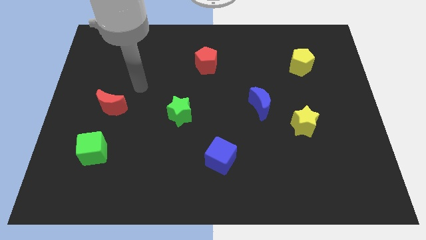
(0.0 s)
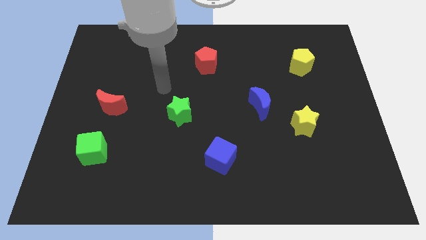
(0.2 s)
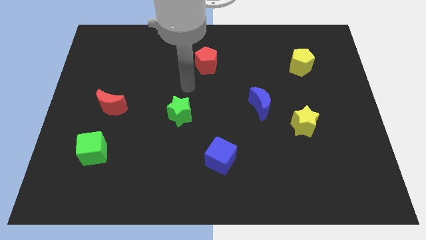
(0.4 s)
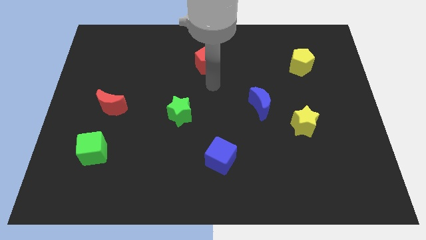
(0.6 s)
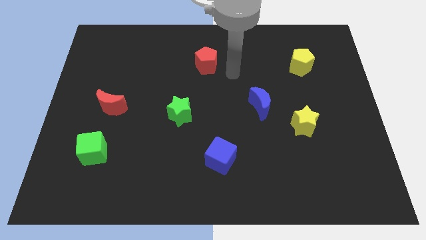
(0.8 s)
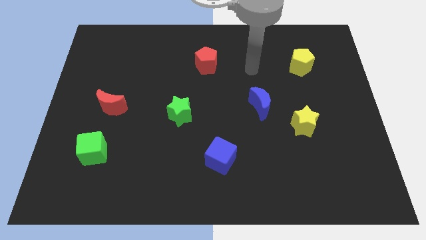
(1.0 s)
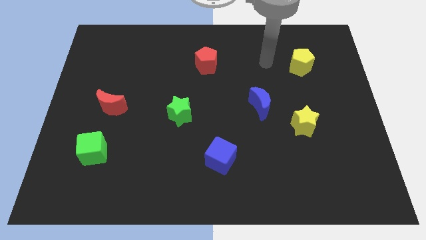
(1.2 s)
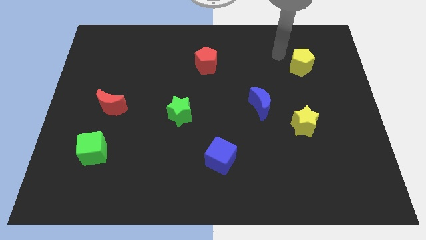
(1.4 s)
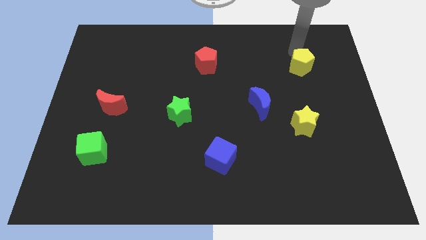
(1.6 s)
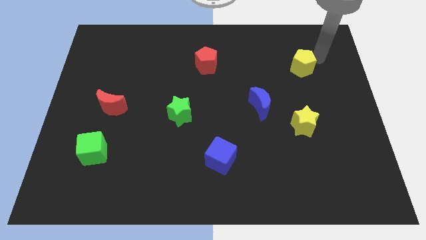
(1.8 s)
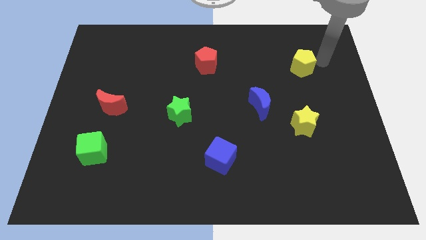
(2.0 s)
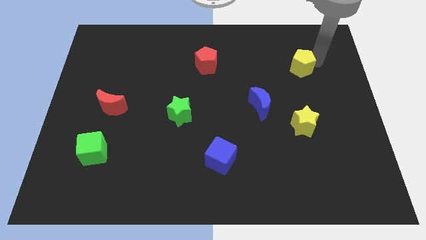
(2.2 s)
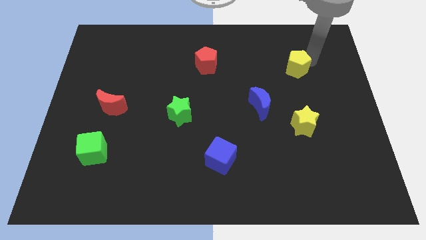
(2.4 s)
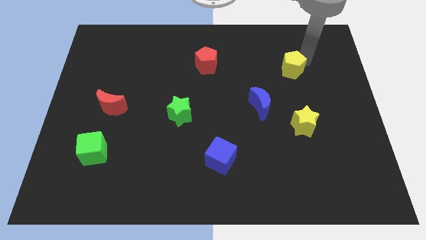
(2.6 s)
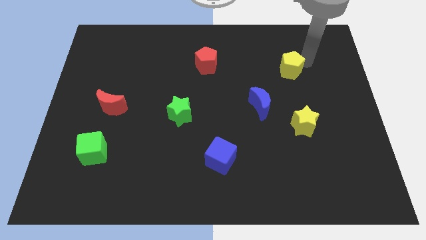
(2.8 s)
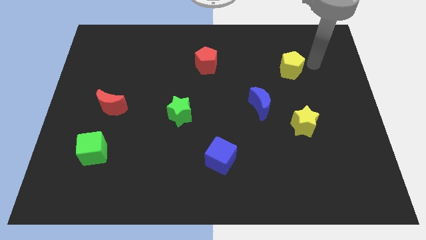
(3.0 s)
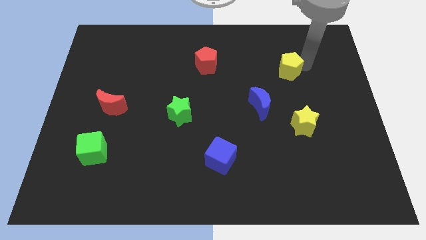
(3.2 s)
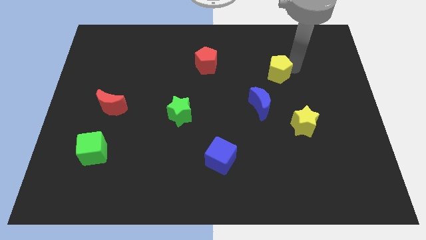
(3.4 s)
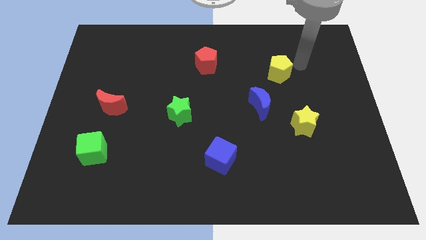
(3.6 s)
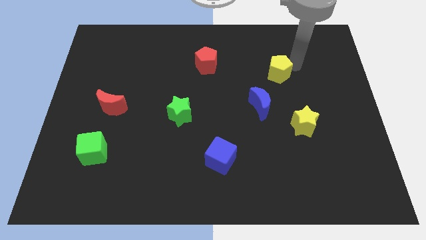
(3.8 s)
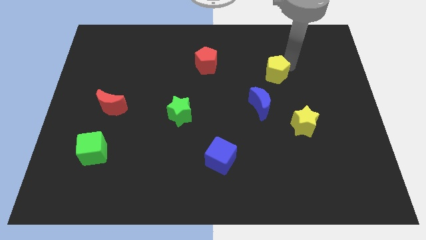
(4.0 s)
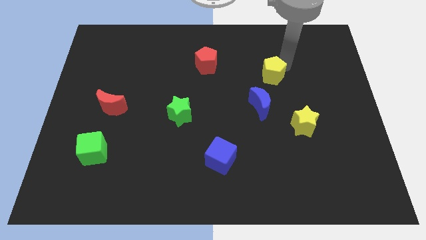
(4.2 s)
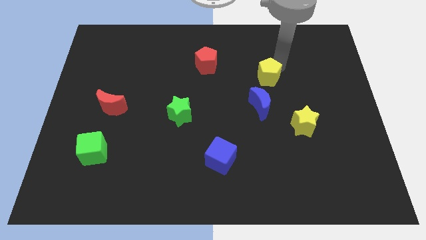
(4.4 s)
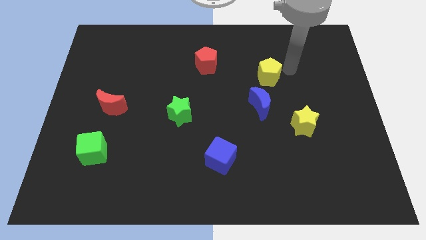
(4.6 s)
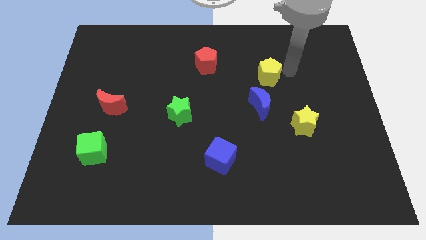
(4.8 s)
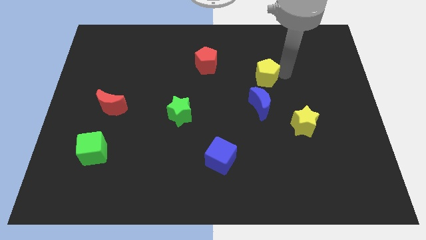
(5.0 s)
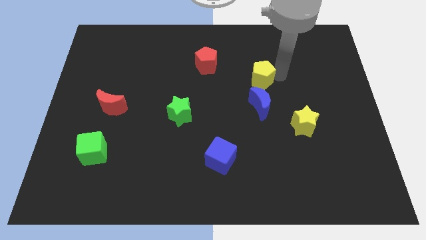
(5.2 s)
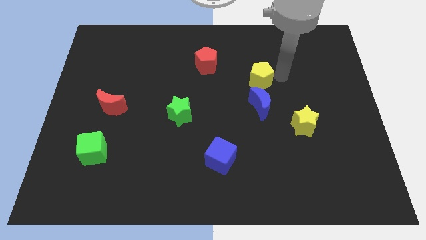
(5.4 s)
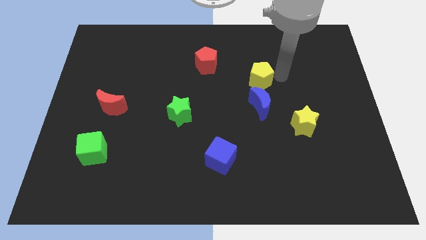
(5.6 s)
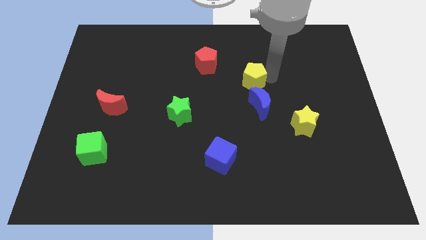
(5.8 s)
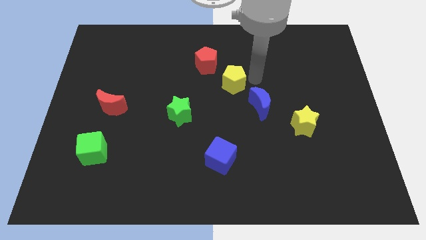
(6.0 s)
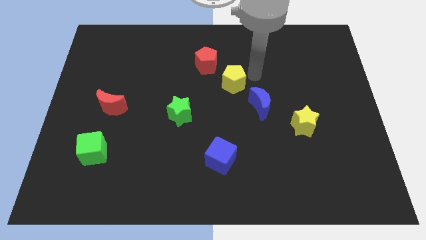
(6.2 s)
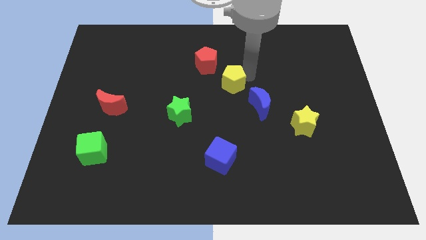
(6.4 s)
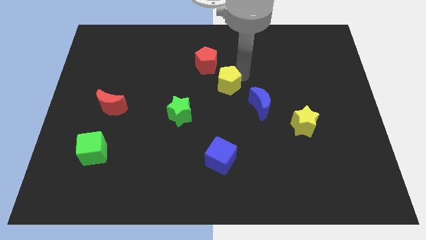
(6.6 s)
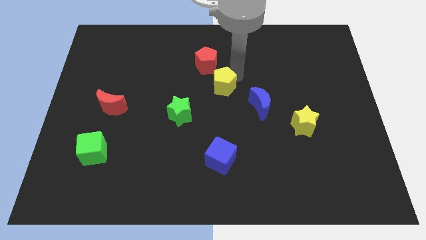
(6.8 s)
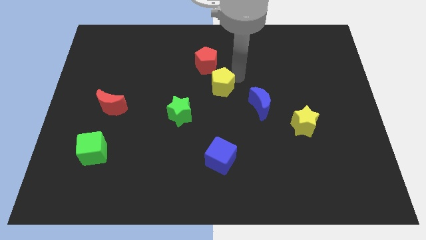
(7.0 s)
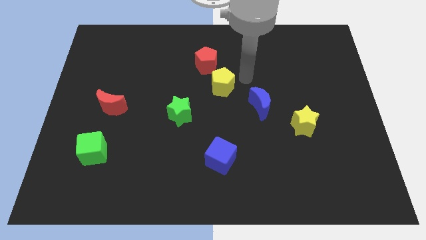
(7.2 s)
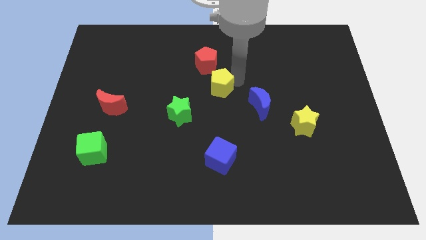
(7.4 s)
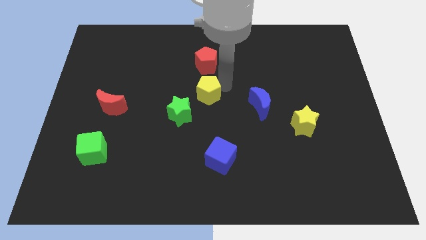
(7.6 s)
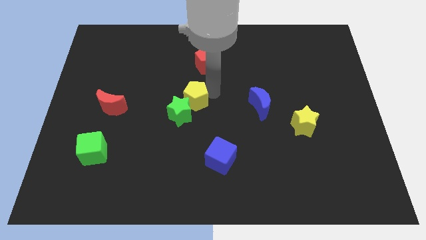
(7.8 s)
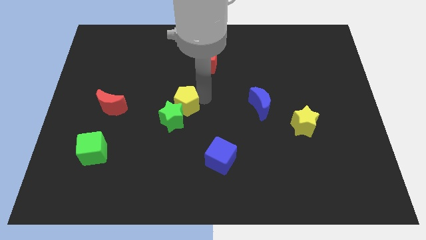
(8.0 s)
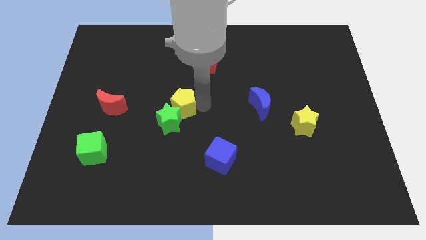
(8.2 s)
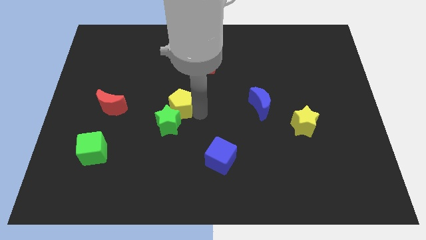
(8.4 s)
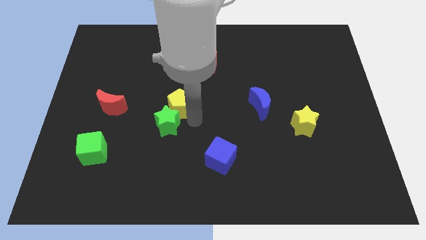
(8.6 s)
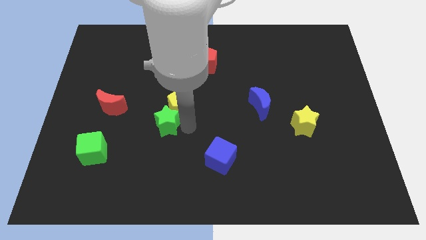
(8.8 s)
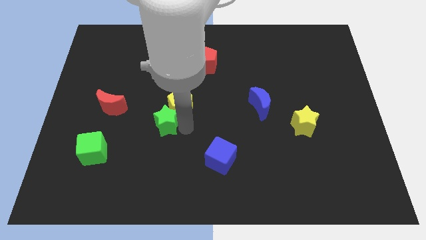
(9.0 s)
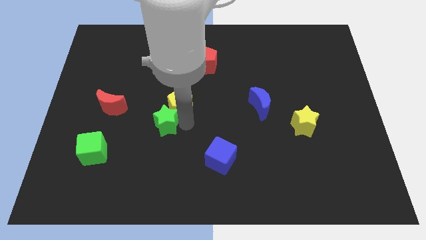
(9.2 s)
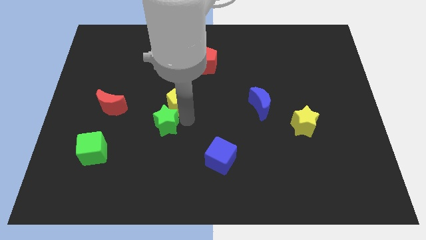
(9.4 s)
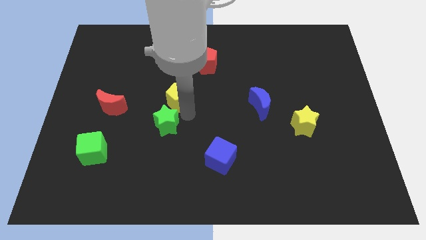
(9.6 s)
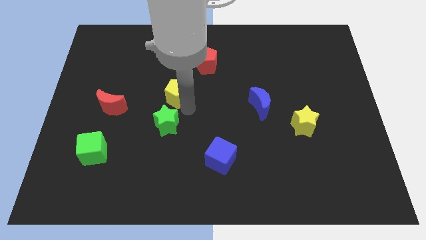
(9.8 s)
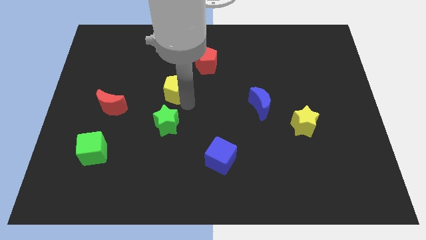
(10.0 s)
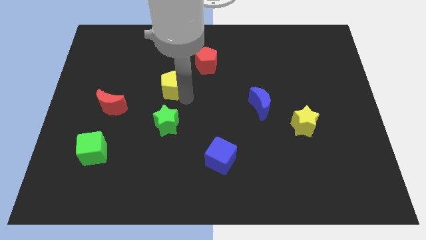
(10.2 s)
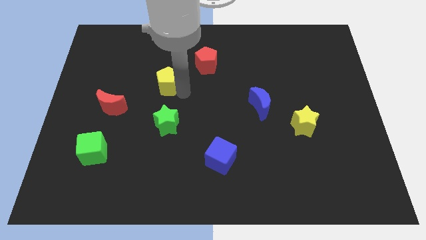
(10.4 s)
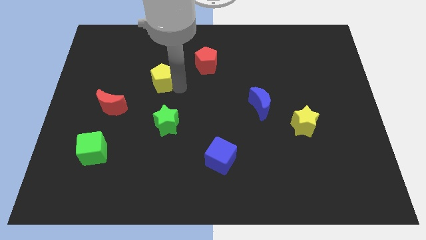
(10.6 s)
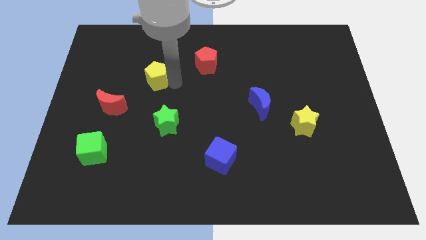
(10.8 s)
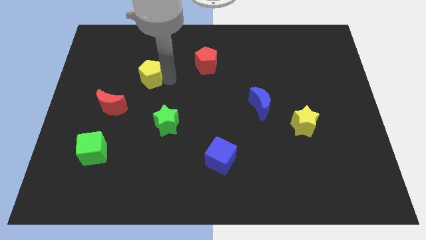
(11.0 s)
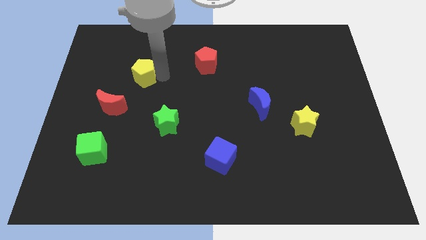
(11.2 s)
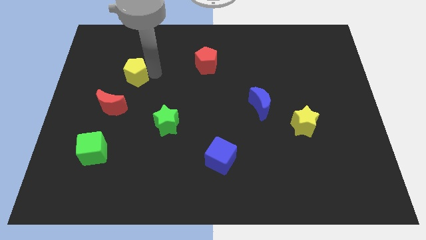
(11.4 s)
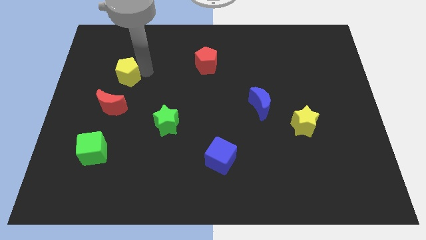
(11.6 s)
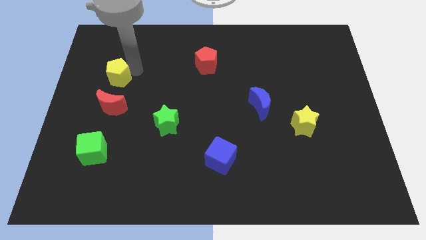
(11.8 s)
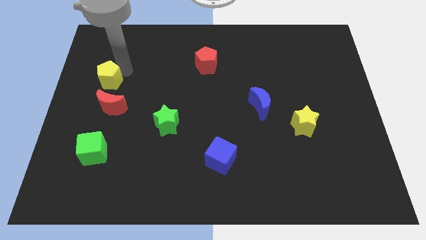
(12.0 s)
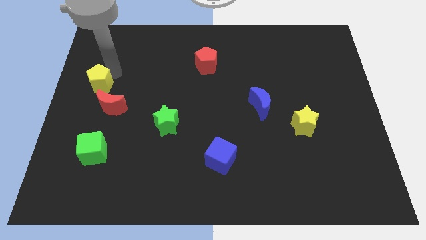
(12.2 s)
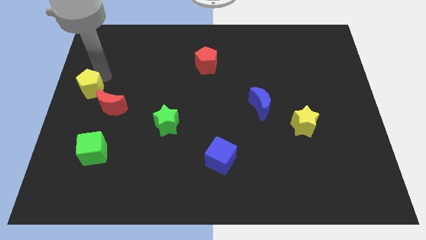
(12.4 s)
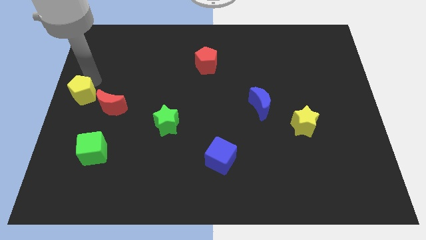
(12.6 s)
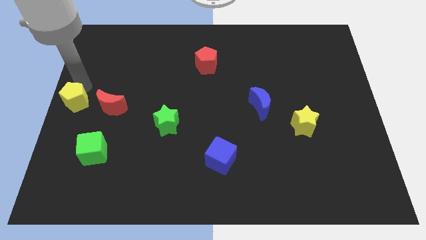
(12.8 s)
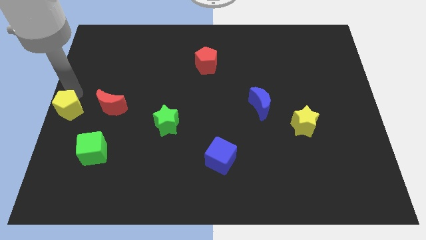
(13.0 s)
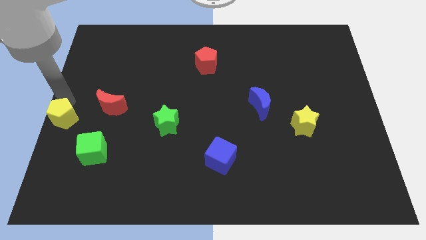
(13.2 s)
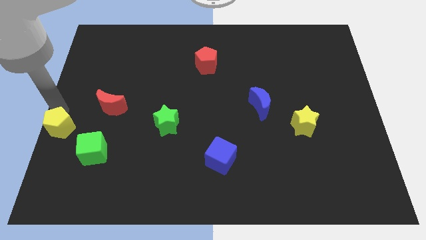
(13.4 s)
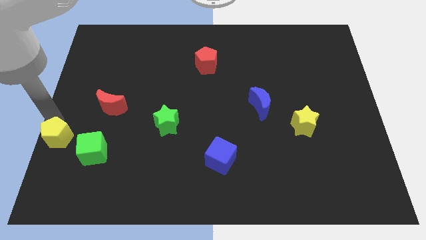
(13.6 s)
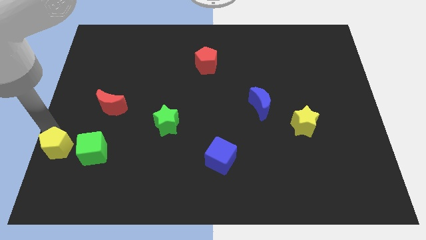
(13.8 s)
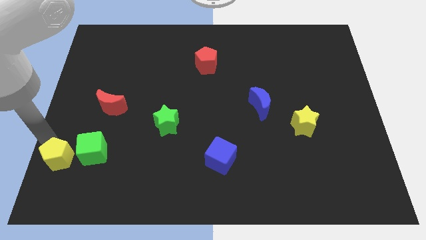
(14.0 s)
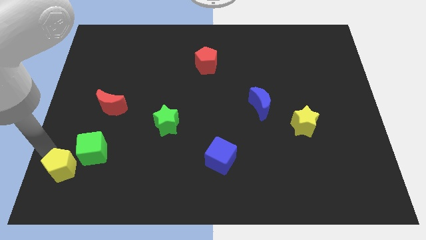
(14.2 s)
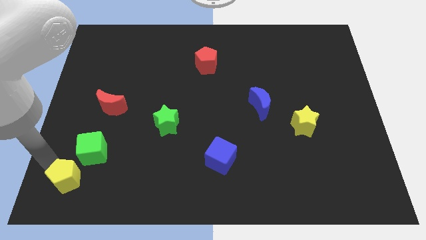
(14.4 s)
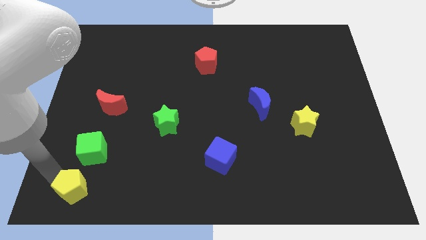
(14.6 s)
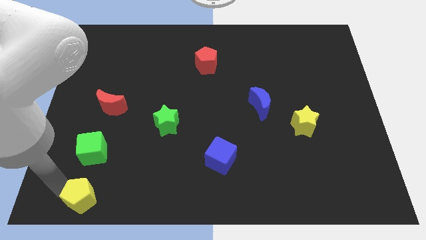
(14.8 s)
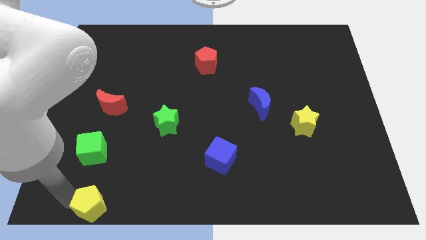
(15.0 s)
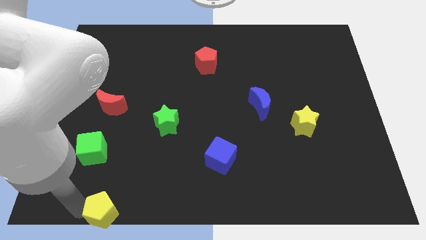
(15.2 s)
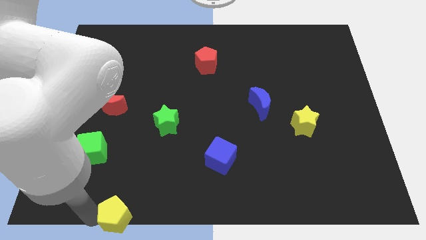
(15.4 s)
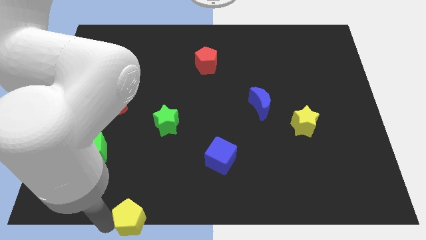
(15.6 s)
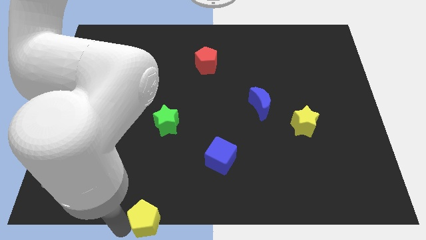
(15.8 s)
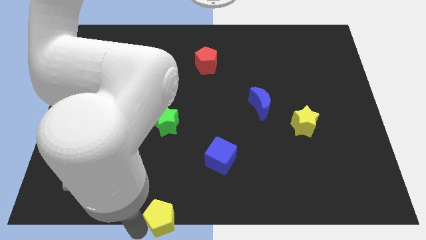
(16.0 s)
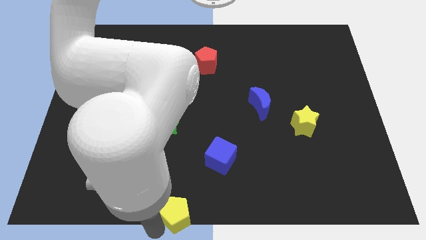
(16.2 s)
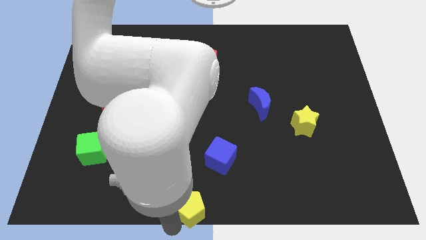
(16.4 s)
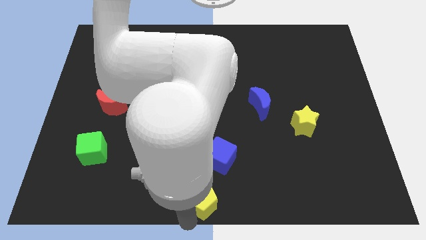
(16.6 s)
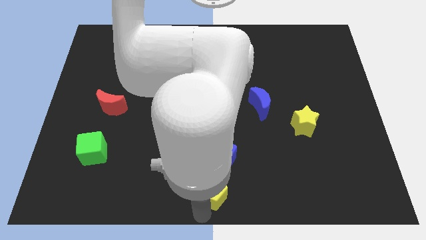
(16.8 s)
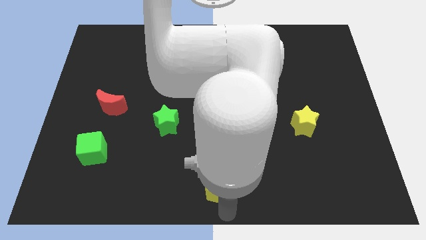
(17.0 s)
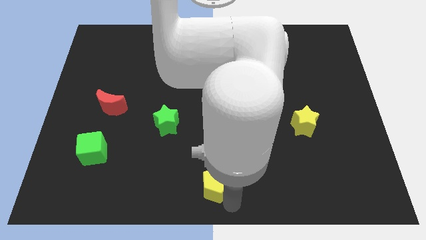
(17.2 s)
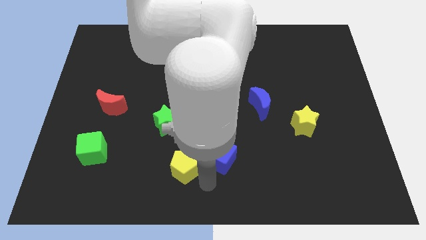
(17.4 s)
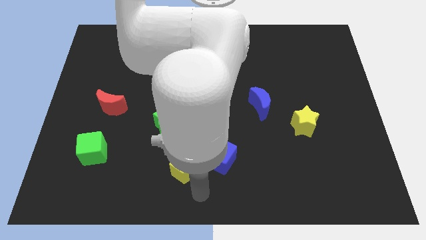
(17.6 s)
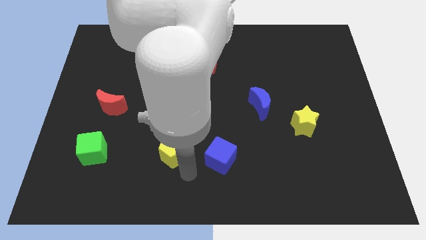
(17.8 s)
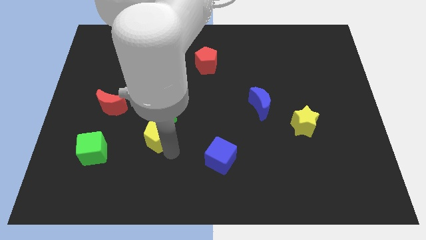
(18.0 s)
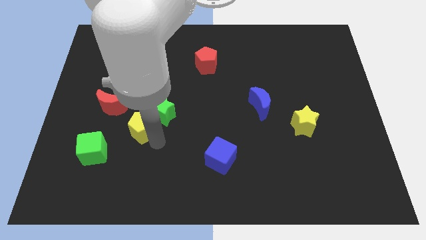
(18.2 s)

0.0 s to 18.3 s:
push the yellow pentagon just left of the green star
